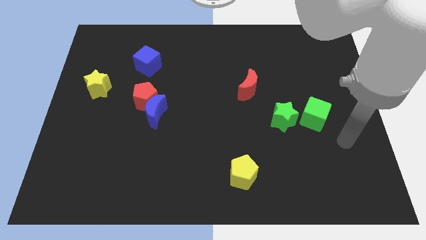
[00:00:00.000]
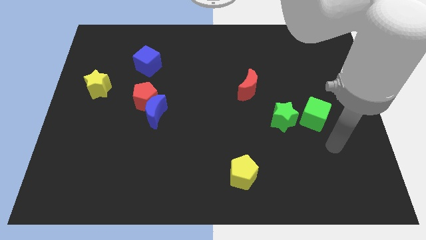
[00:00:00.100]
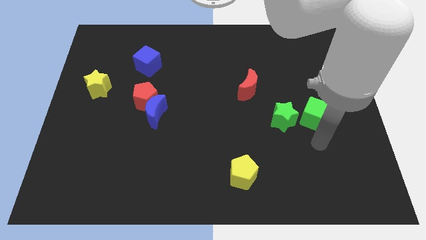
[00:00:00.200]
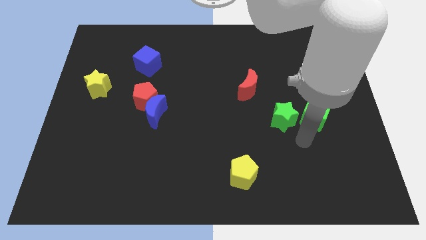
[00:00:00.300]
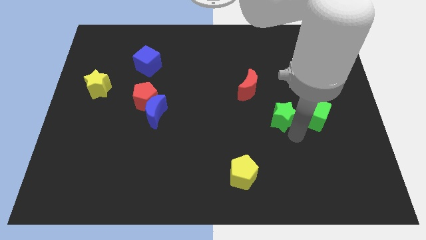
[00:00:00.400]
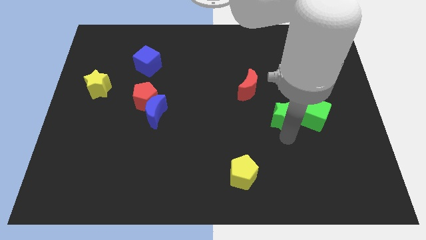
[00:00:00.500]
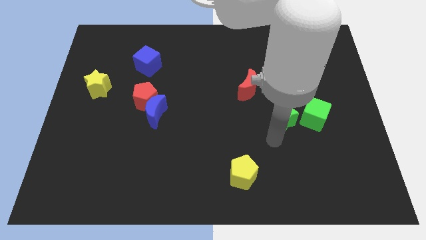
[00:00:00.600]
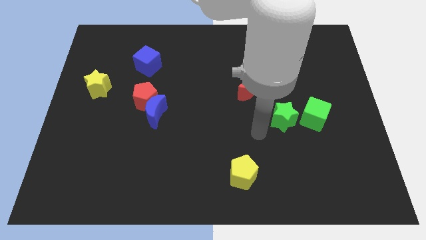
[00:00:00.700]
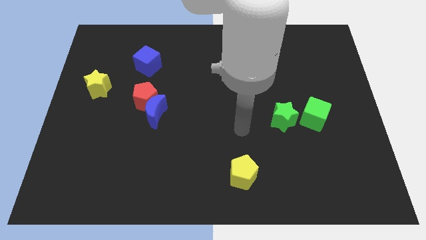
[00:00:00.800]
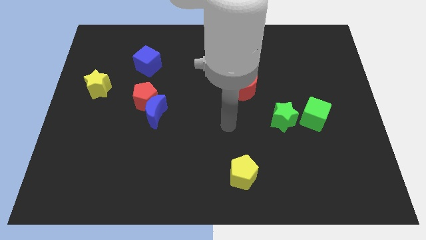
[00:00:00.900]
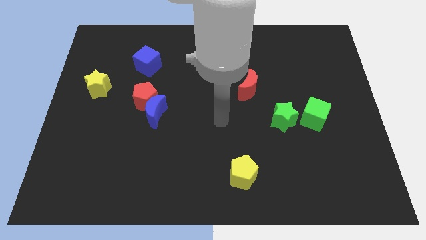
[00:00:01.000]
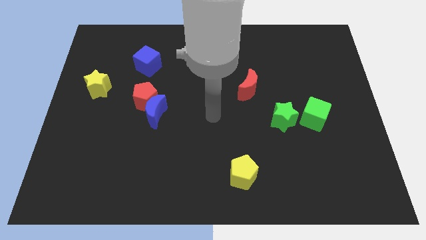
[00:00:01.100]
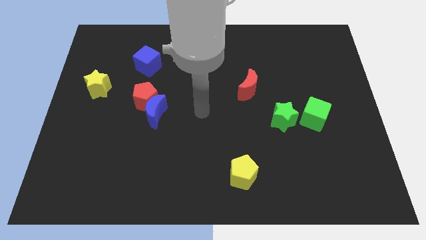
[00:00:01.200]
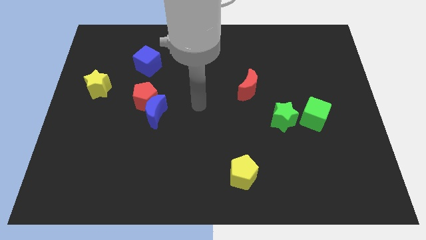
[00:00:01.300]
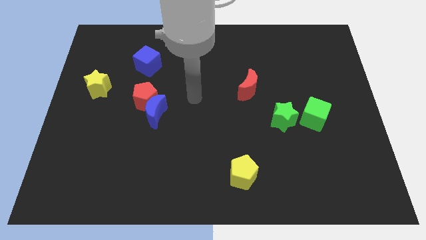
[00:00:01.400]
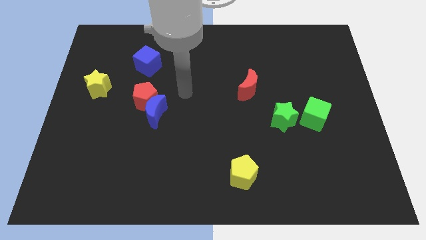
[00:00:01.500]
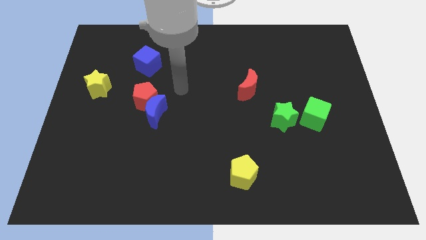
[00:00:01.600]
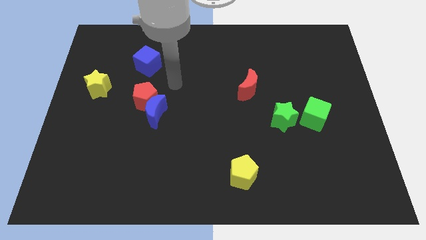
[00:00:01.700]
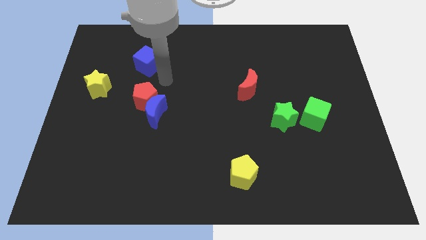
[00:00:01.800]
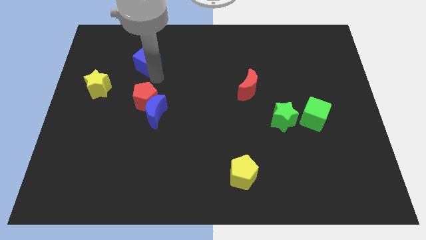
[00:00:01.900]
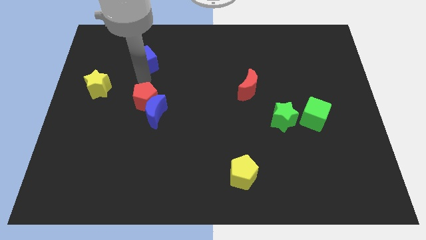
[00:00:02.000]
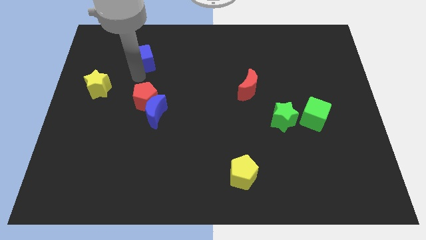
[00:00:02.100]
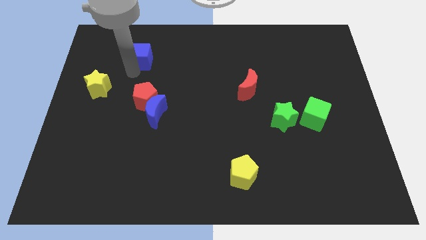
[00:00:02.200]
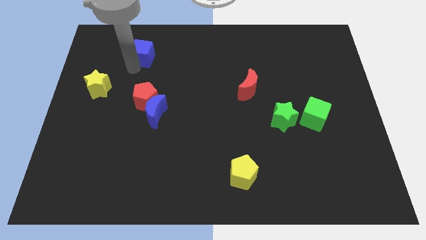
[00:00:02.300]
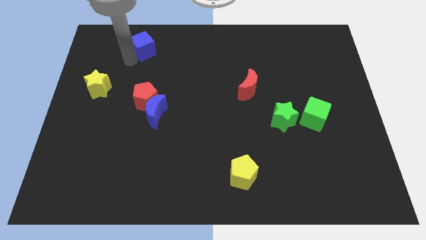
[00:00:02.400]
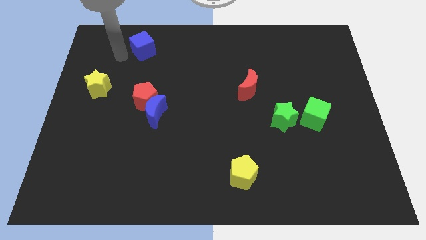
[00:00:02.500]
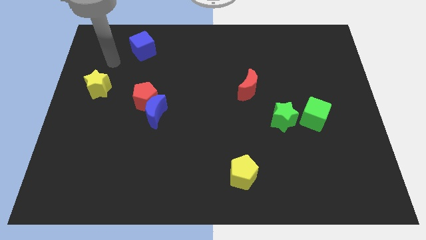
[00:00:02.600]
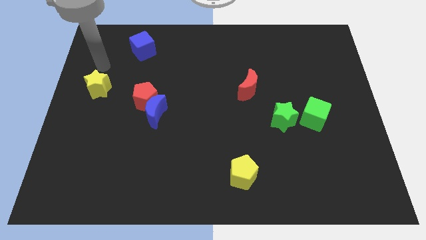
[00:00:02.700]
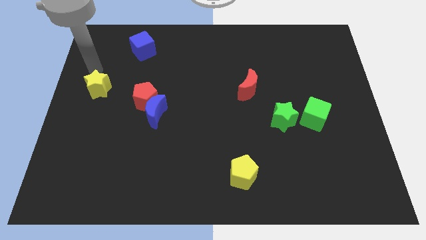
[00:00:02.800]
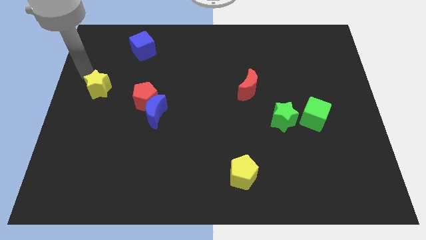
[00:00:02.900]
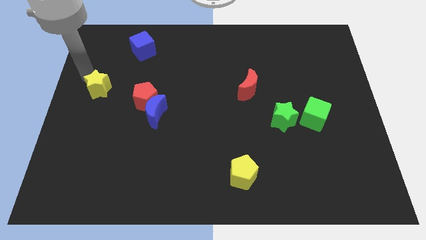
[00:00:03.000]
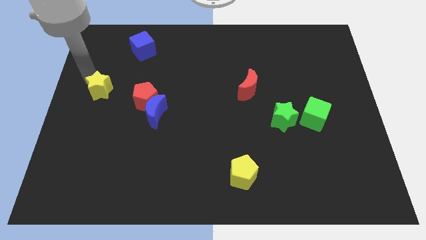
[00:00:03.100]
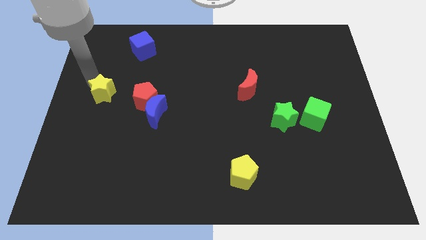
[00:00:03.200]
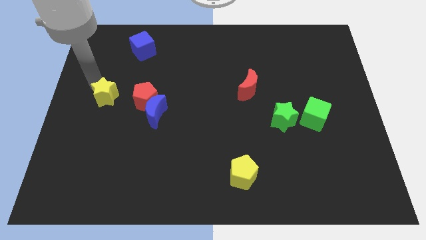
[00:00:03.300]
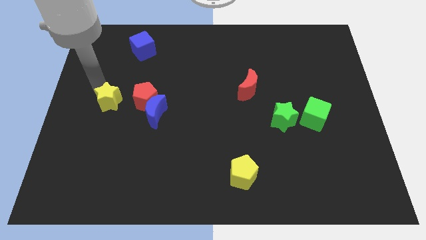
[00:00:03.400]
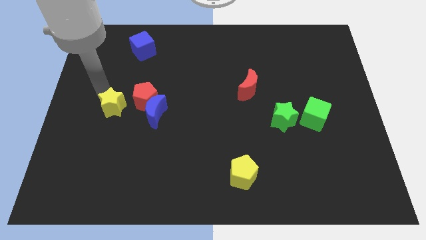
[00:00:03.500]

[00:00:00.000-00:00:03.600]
slide the yellow star a little bit downwards and right diagonally

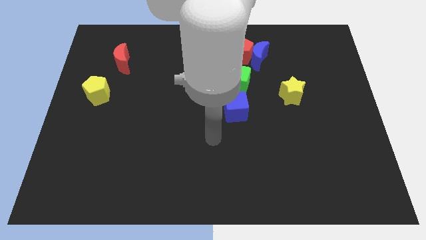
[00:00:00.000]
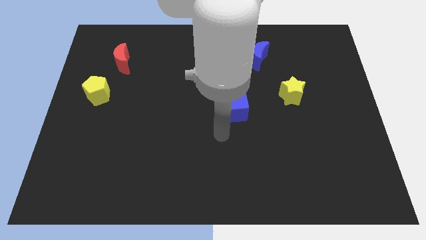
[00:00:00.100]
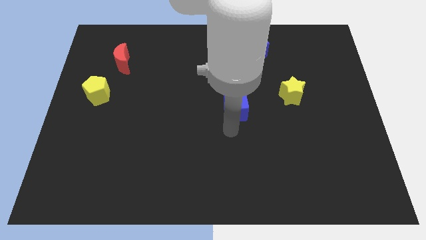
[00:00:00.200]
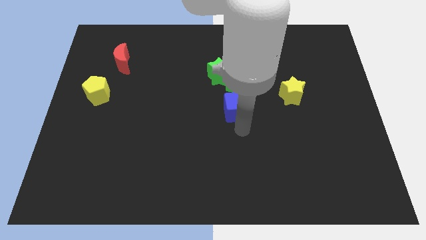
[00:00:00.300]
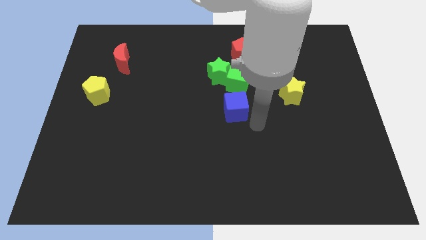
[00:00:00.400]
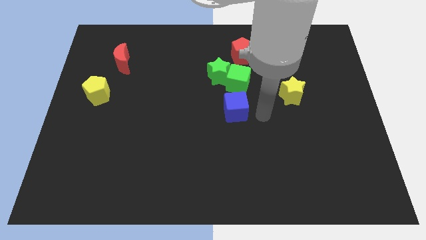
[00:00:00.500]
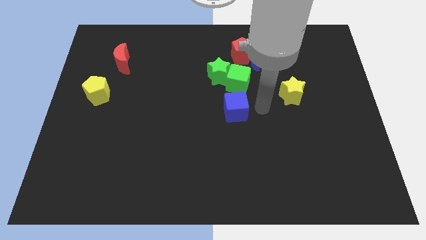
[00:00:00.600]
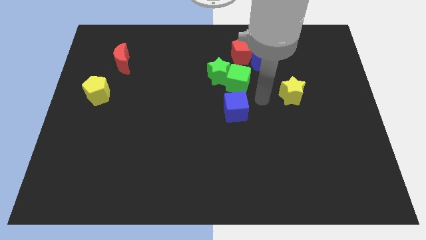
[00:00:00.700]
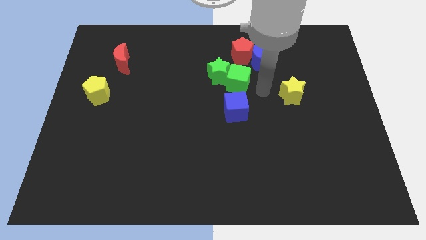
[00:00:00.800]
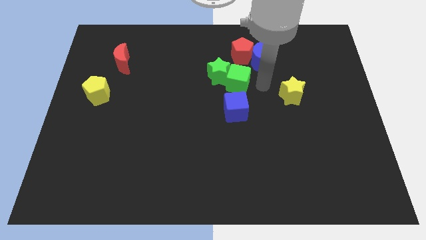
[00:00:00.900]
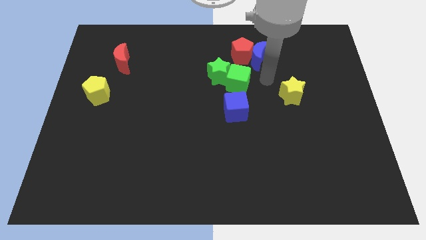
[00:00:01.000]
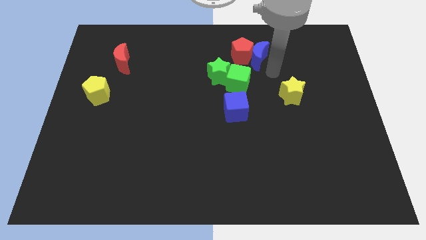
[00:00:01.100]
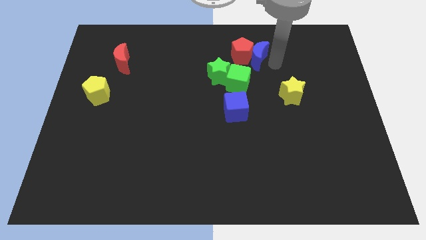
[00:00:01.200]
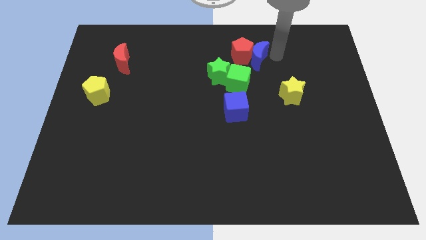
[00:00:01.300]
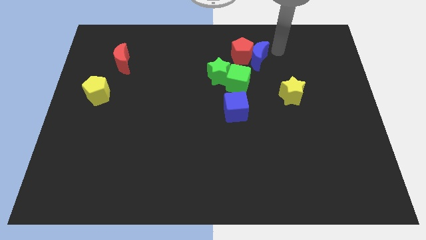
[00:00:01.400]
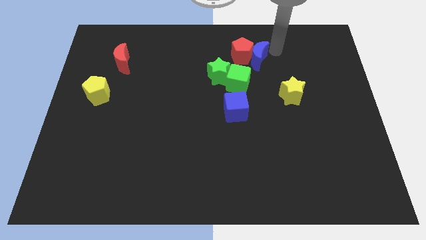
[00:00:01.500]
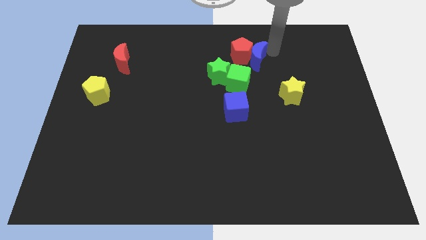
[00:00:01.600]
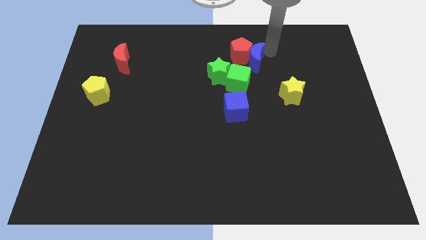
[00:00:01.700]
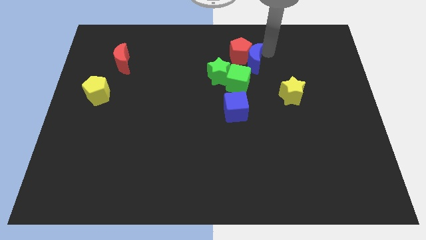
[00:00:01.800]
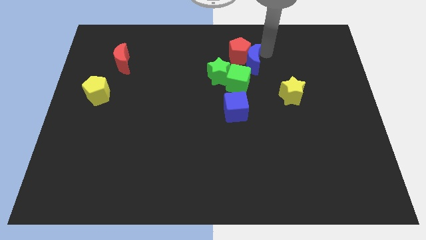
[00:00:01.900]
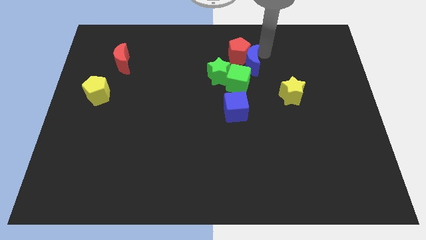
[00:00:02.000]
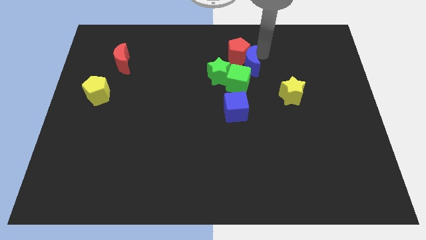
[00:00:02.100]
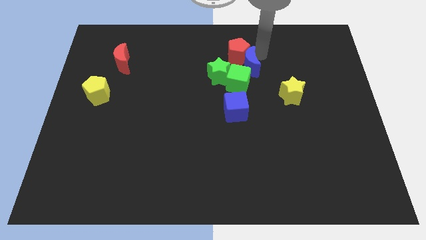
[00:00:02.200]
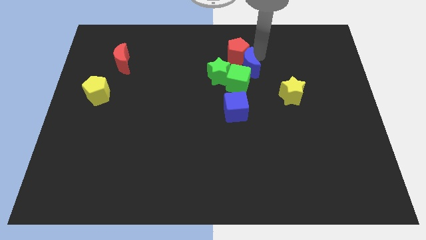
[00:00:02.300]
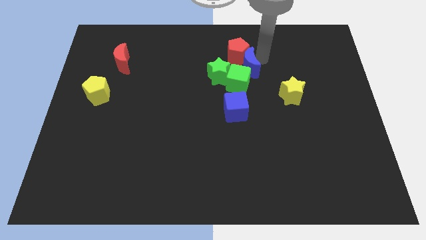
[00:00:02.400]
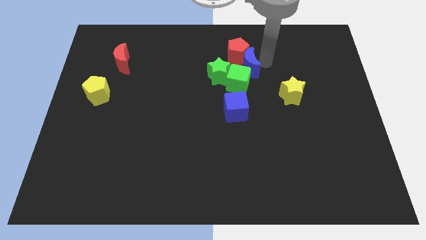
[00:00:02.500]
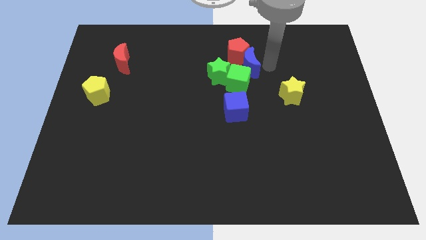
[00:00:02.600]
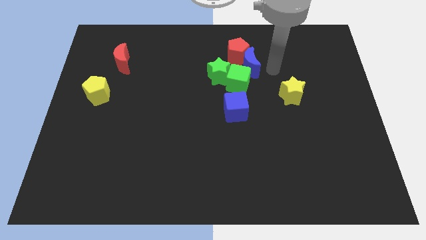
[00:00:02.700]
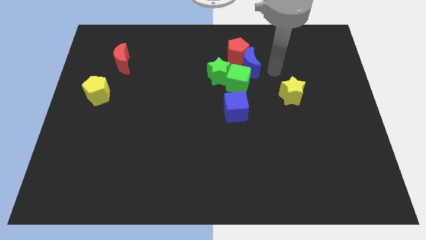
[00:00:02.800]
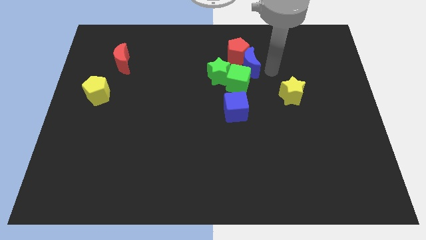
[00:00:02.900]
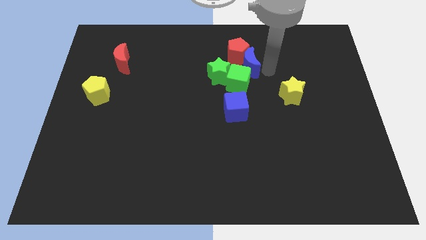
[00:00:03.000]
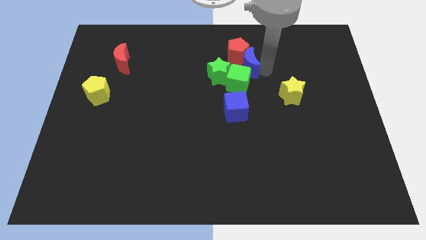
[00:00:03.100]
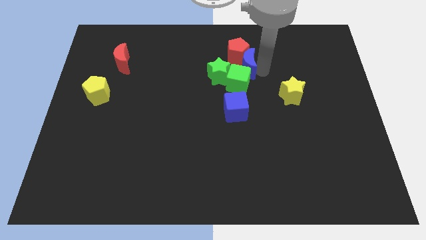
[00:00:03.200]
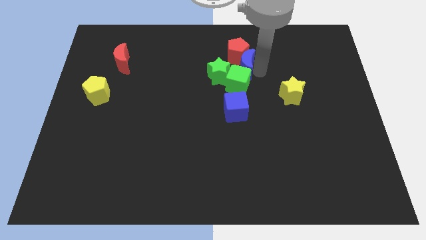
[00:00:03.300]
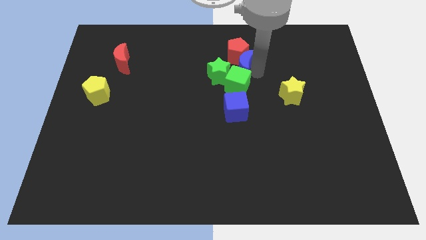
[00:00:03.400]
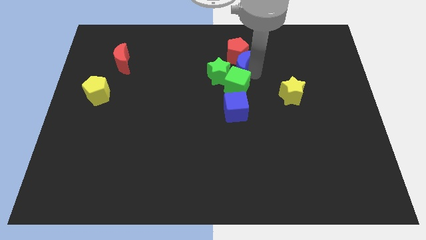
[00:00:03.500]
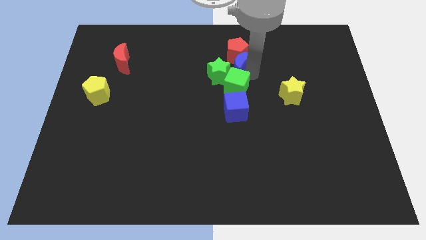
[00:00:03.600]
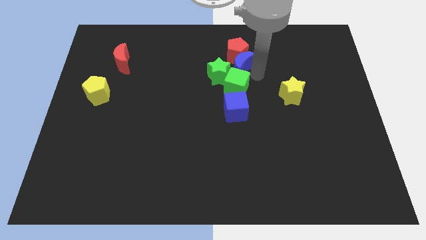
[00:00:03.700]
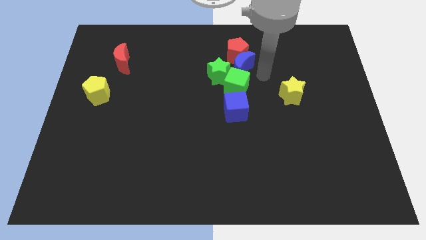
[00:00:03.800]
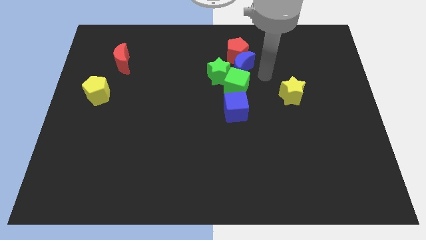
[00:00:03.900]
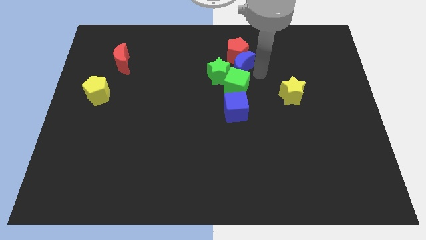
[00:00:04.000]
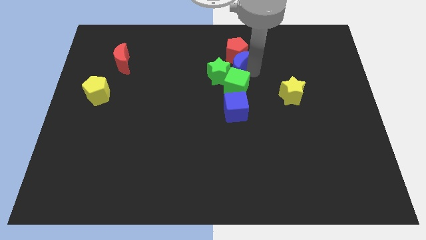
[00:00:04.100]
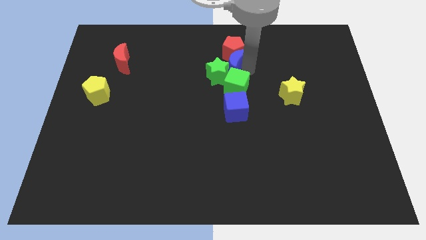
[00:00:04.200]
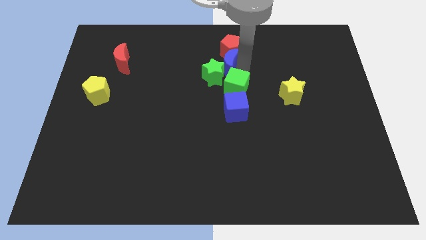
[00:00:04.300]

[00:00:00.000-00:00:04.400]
move the blue moon a little bit left
